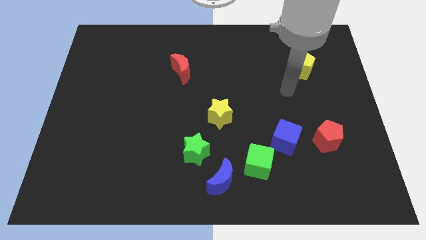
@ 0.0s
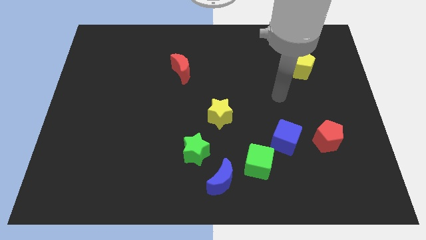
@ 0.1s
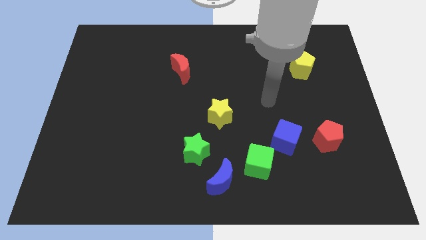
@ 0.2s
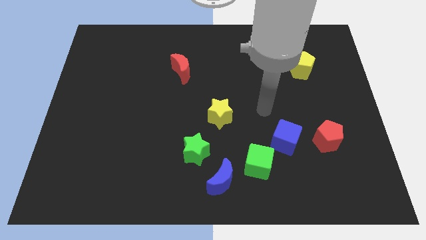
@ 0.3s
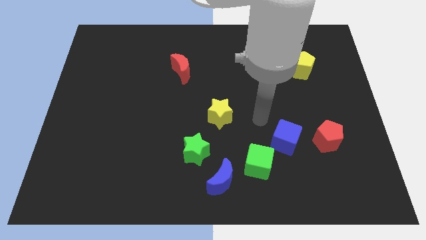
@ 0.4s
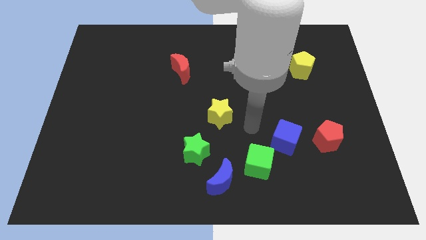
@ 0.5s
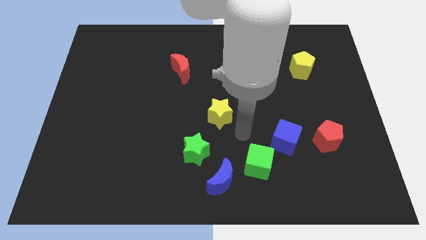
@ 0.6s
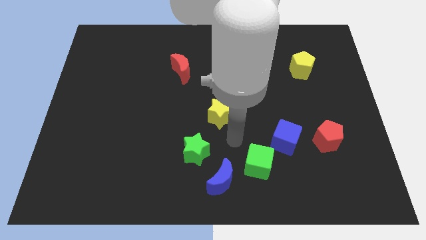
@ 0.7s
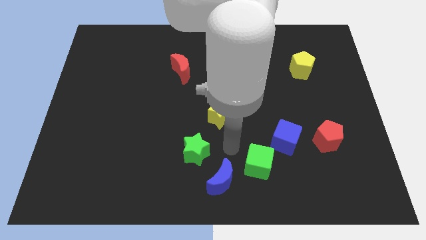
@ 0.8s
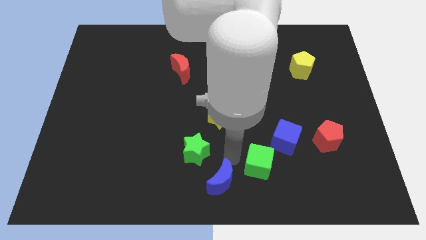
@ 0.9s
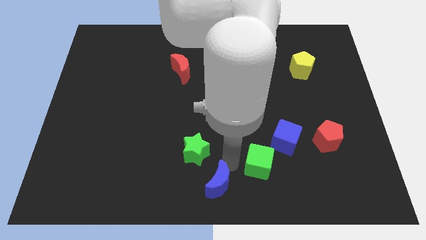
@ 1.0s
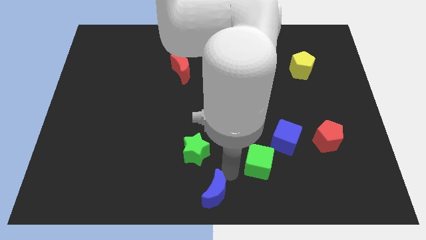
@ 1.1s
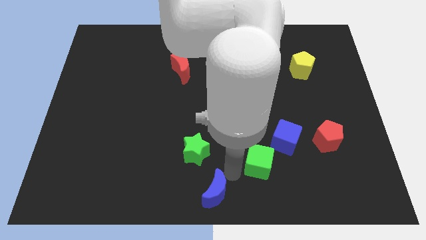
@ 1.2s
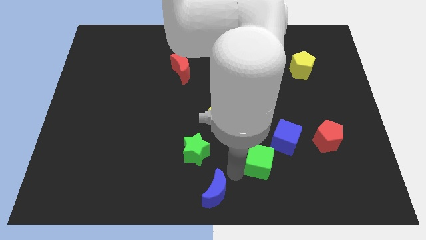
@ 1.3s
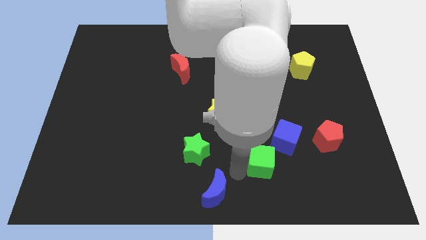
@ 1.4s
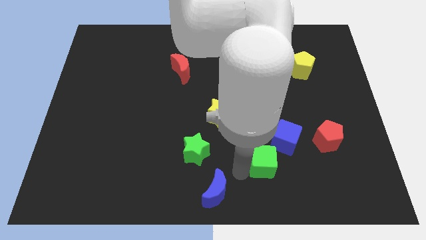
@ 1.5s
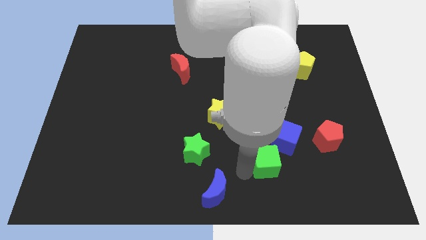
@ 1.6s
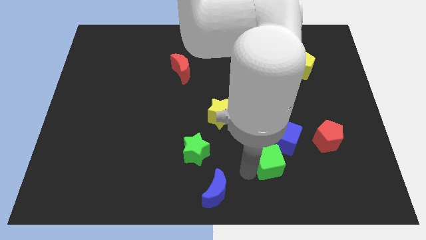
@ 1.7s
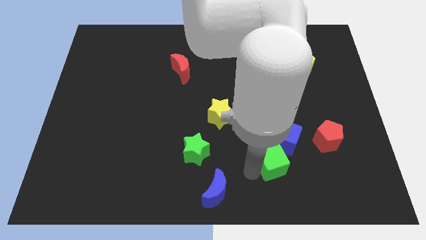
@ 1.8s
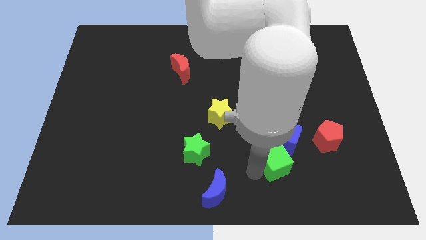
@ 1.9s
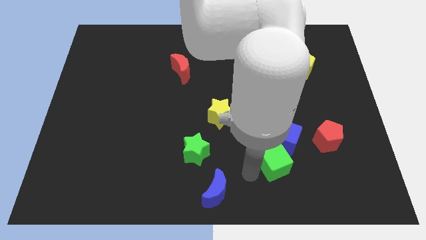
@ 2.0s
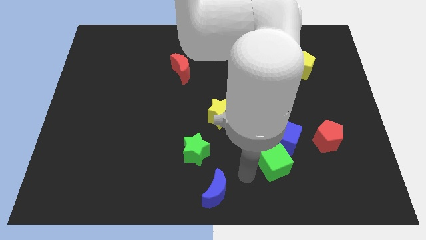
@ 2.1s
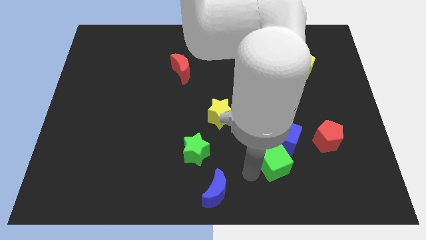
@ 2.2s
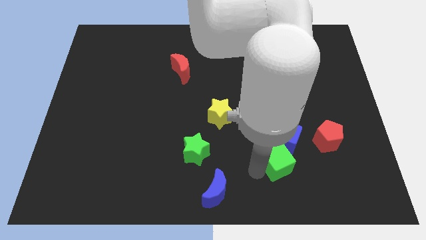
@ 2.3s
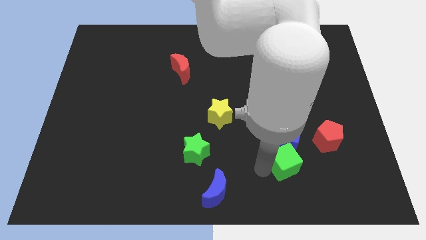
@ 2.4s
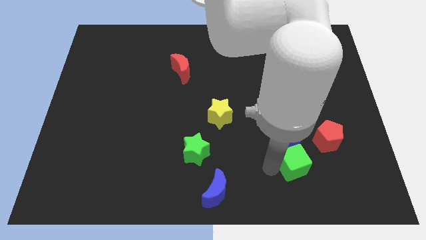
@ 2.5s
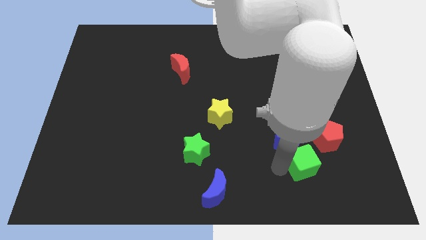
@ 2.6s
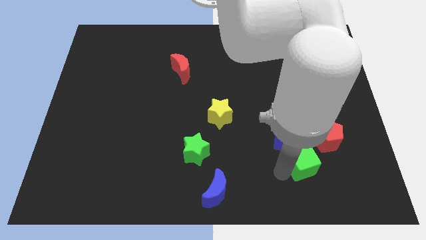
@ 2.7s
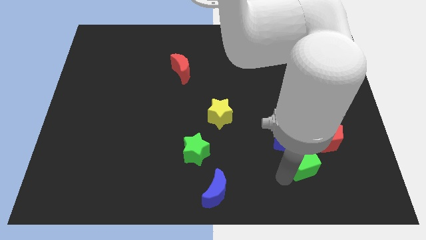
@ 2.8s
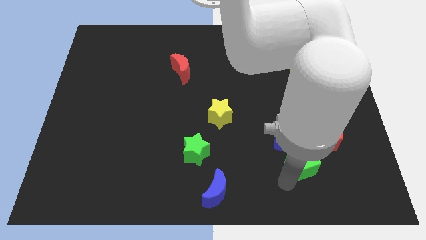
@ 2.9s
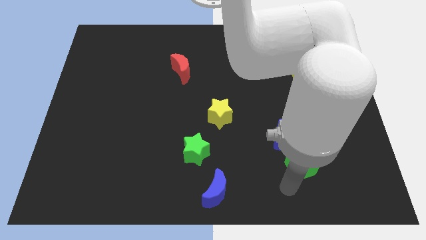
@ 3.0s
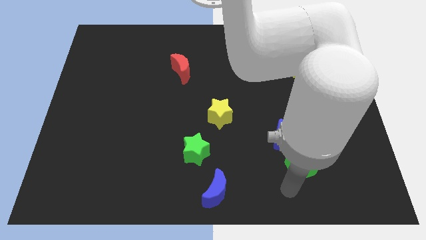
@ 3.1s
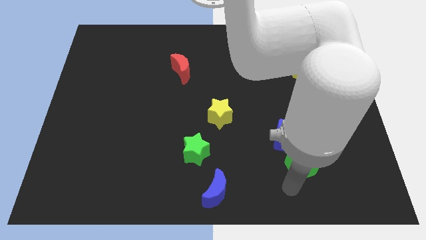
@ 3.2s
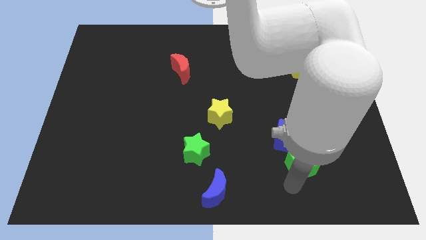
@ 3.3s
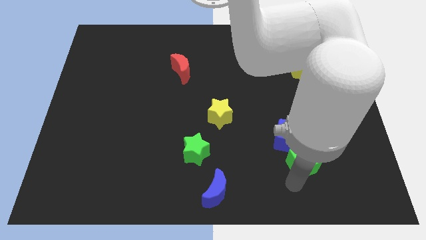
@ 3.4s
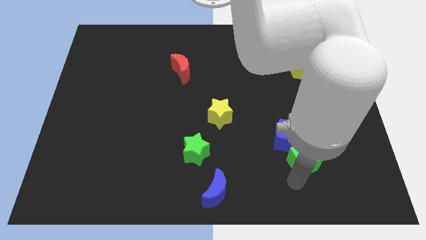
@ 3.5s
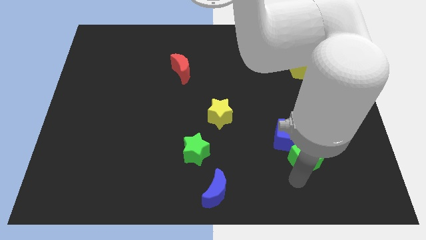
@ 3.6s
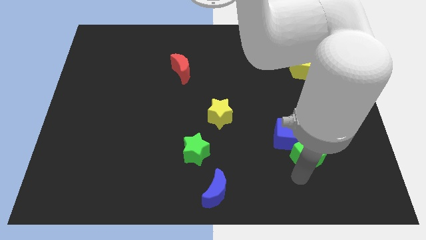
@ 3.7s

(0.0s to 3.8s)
slide the green cube up and then to the right a little

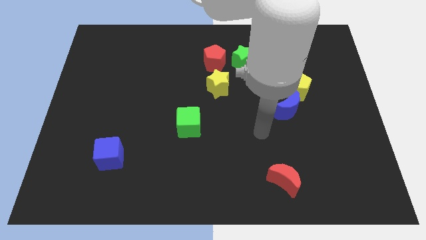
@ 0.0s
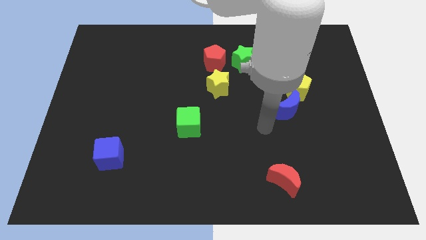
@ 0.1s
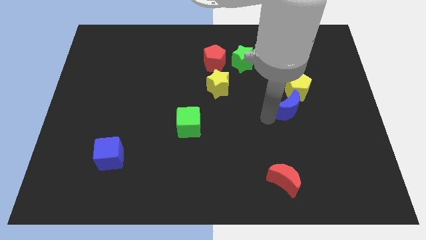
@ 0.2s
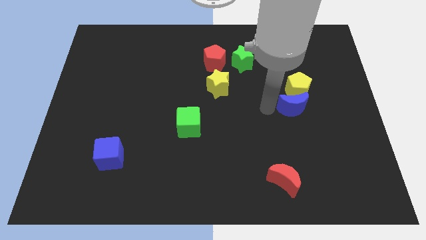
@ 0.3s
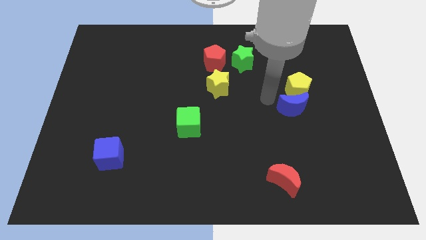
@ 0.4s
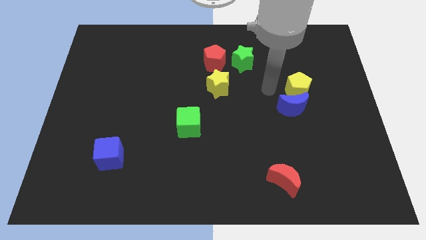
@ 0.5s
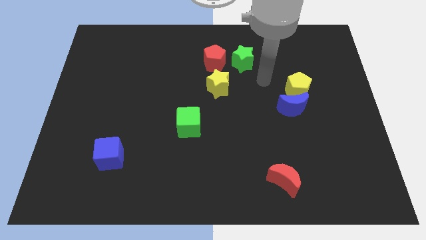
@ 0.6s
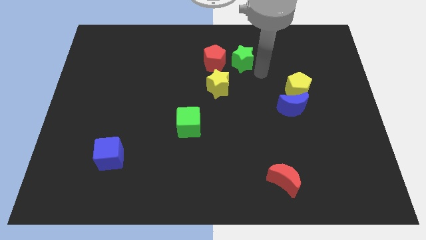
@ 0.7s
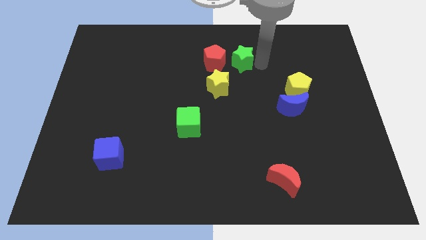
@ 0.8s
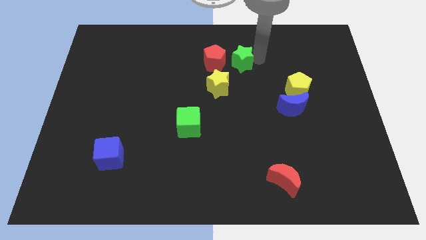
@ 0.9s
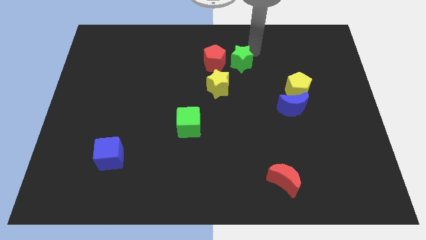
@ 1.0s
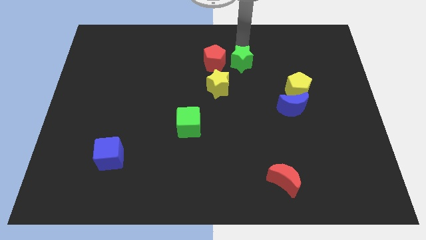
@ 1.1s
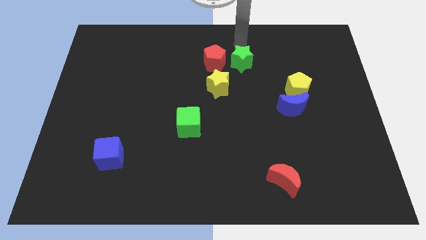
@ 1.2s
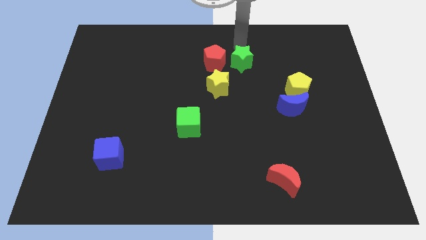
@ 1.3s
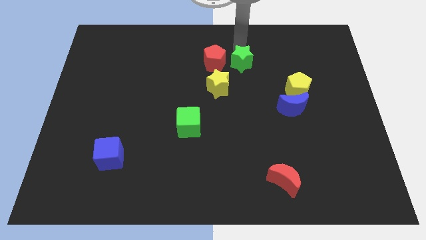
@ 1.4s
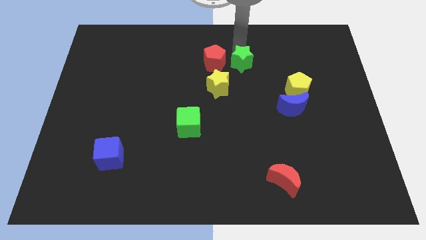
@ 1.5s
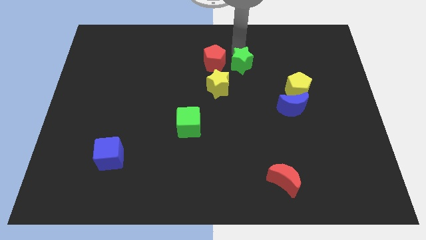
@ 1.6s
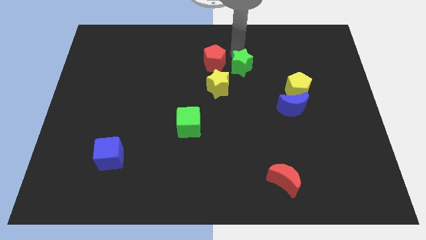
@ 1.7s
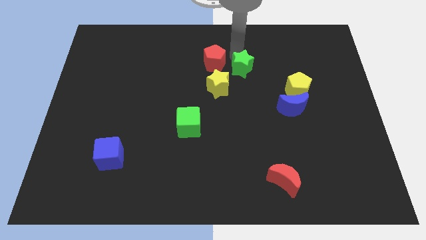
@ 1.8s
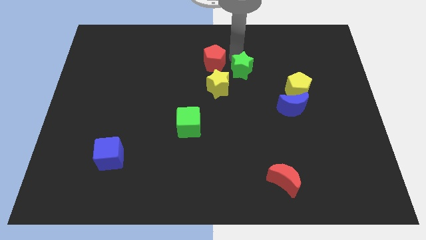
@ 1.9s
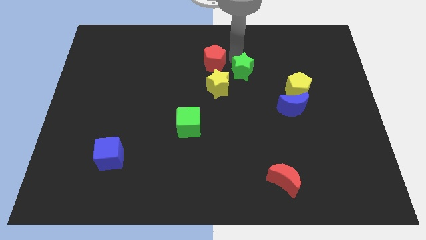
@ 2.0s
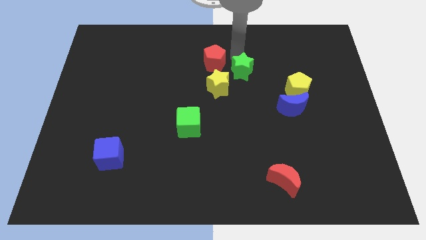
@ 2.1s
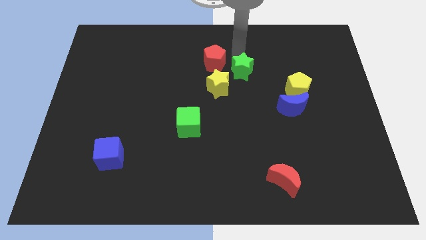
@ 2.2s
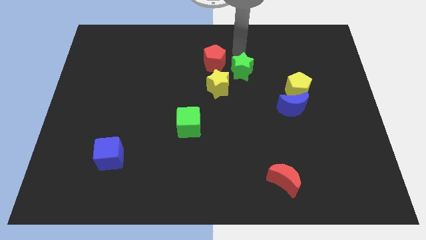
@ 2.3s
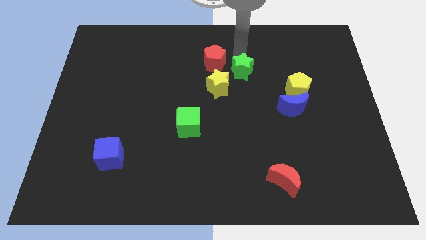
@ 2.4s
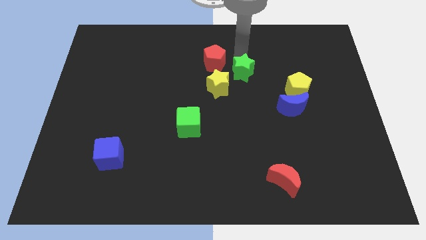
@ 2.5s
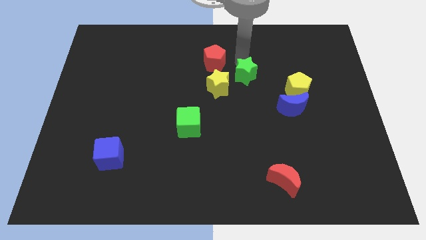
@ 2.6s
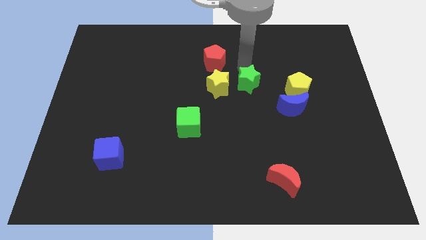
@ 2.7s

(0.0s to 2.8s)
slightly move the green star down

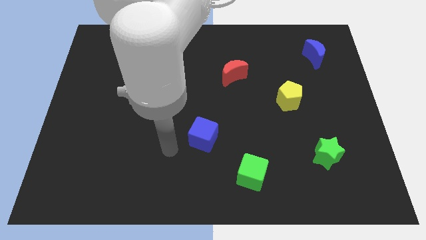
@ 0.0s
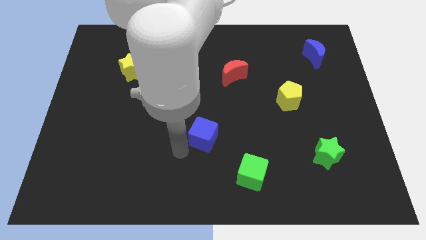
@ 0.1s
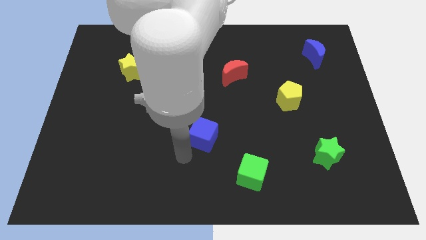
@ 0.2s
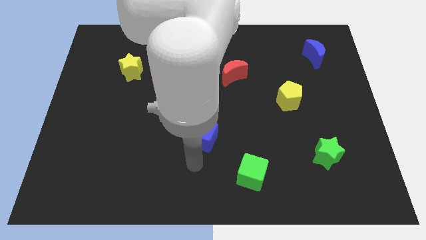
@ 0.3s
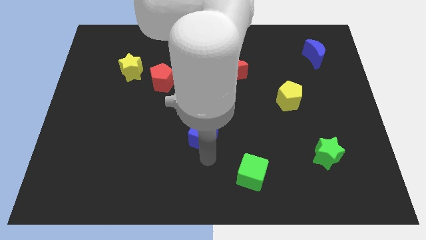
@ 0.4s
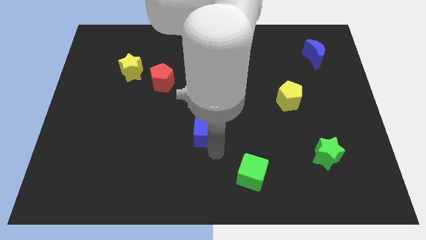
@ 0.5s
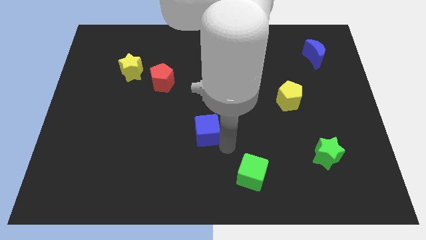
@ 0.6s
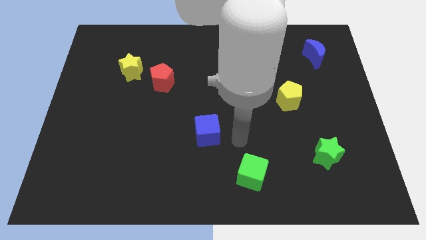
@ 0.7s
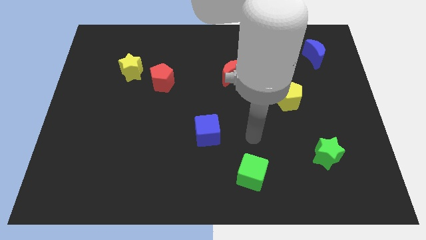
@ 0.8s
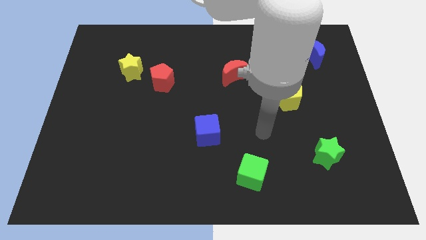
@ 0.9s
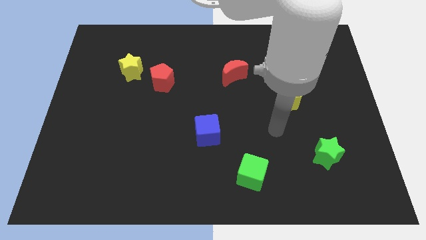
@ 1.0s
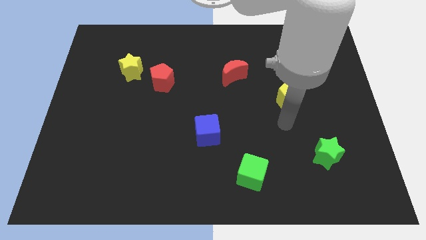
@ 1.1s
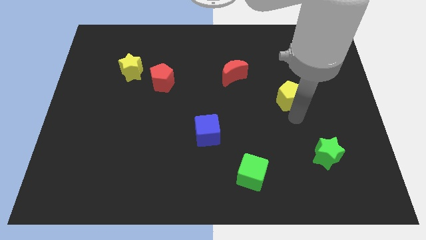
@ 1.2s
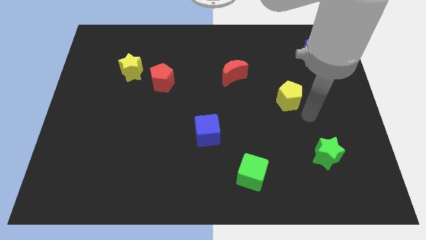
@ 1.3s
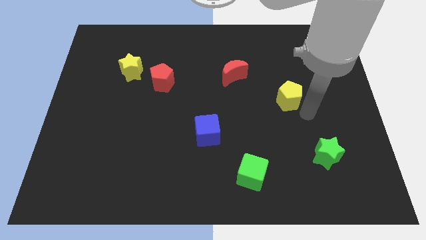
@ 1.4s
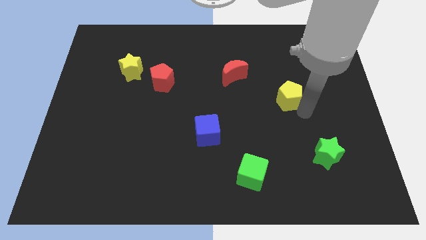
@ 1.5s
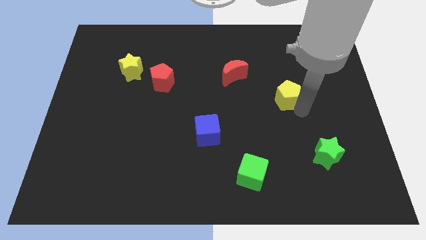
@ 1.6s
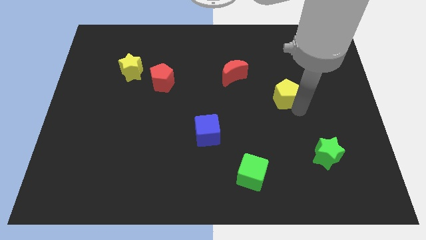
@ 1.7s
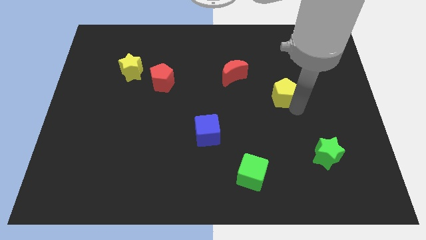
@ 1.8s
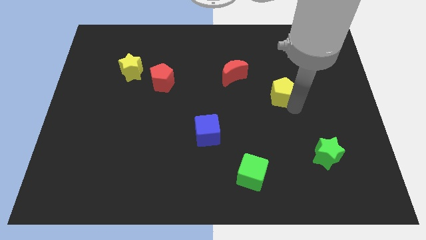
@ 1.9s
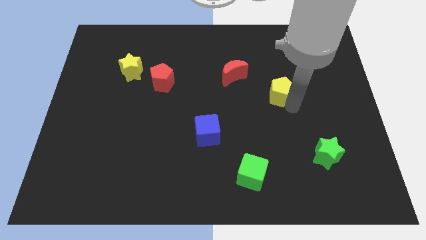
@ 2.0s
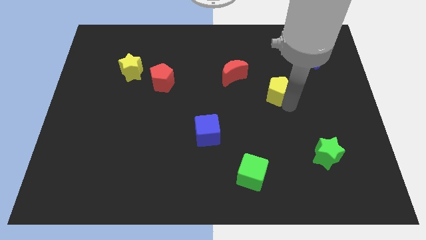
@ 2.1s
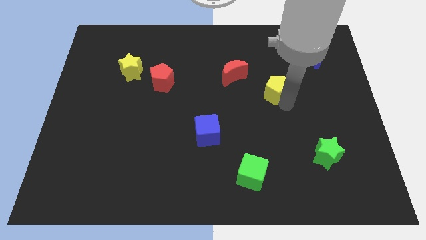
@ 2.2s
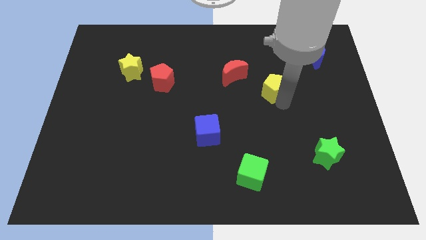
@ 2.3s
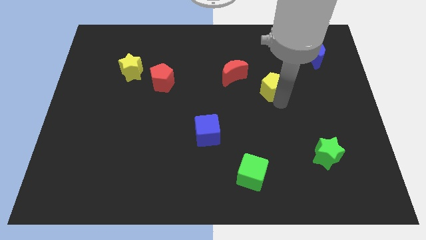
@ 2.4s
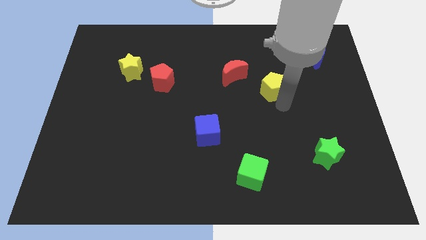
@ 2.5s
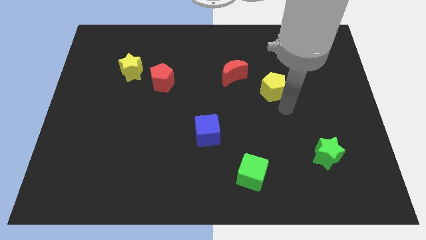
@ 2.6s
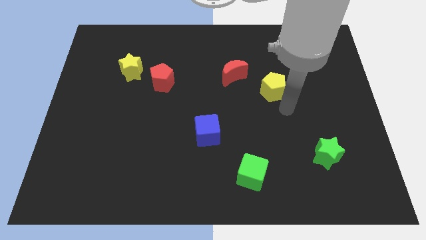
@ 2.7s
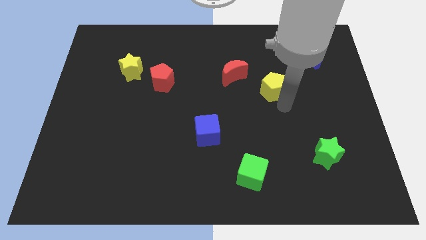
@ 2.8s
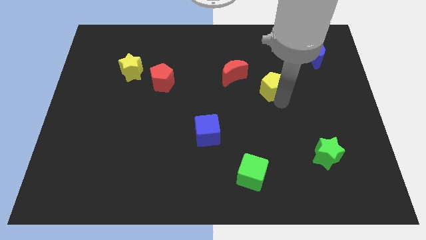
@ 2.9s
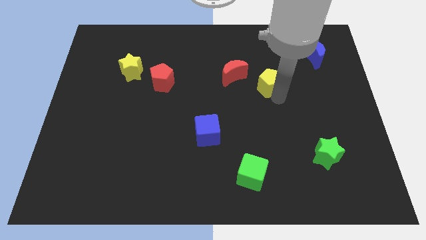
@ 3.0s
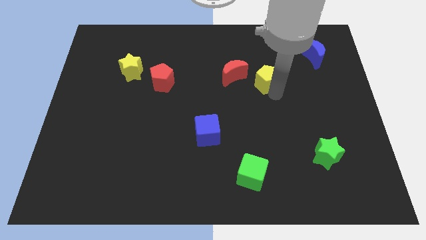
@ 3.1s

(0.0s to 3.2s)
slide the yellow pentagon a little upwards and to the left
